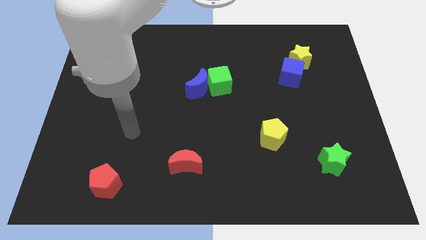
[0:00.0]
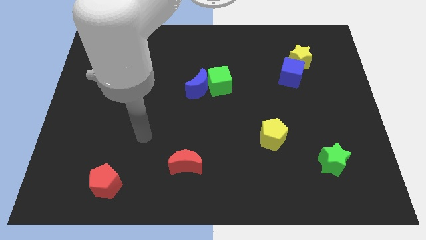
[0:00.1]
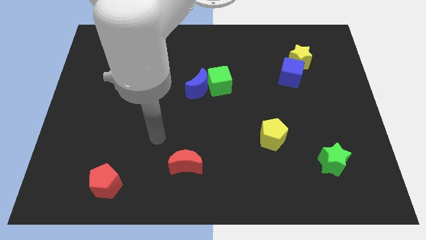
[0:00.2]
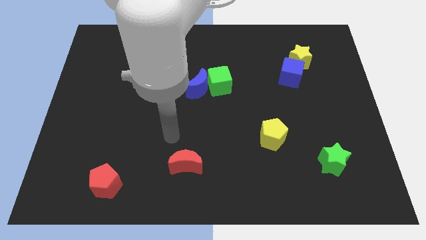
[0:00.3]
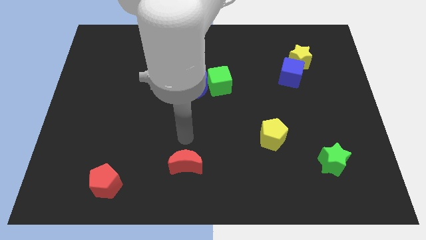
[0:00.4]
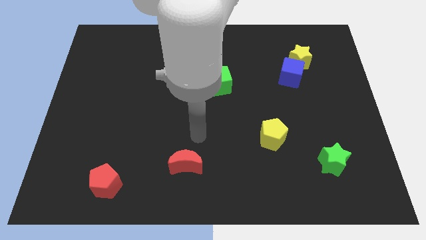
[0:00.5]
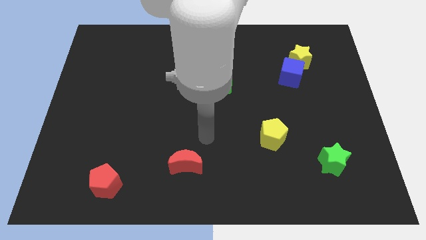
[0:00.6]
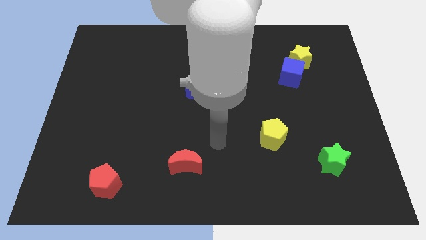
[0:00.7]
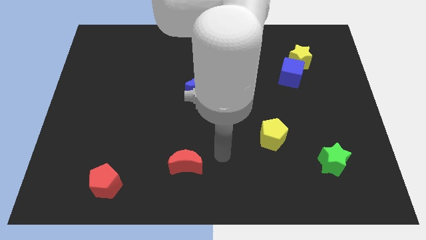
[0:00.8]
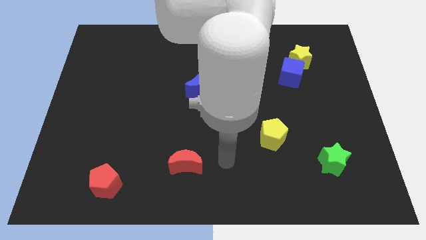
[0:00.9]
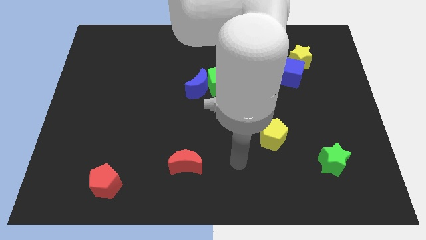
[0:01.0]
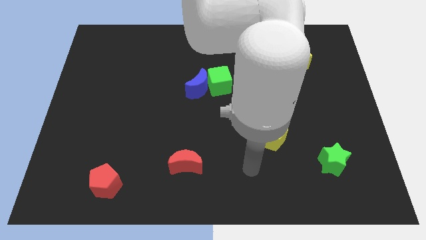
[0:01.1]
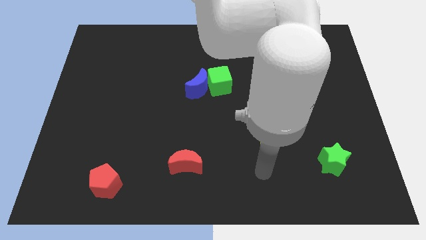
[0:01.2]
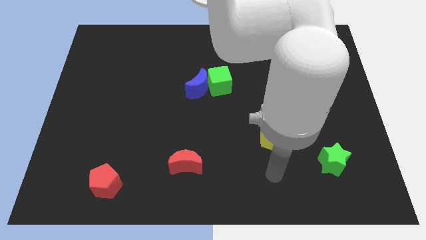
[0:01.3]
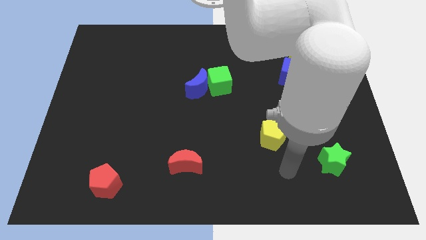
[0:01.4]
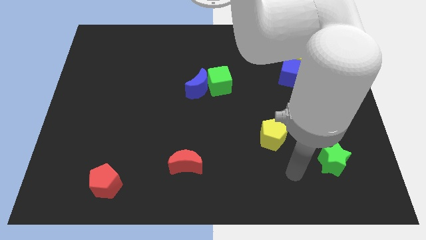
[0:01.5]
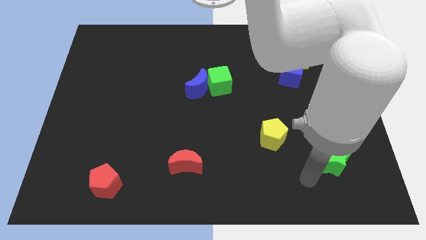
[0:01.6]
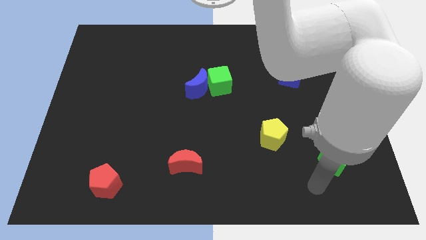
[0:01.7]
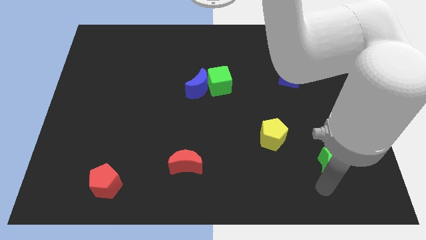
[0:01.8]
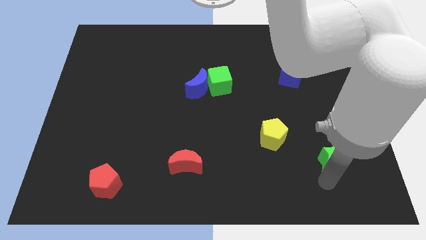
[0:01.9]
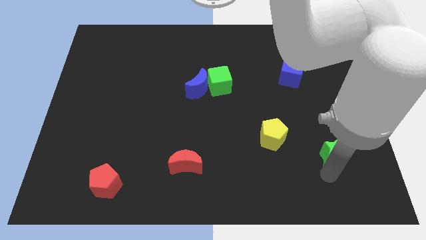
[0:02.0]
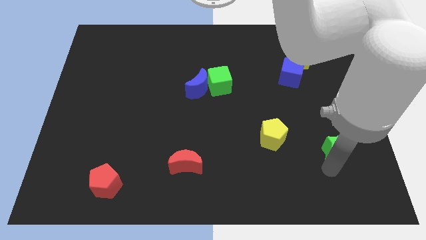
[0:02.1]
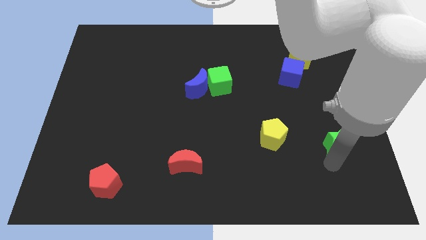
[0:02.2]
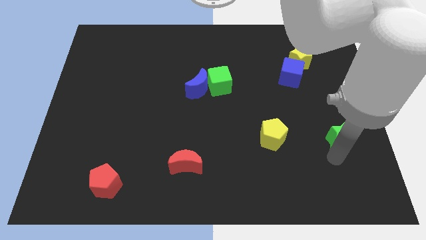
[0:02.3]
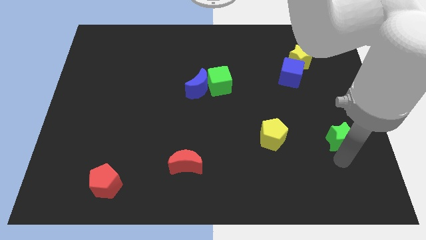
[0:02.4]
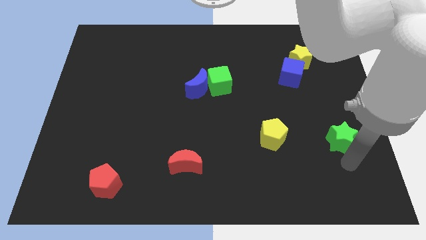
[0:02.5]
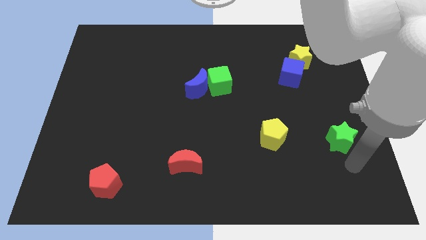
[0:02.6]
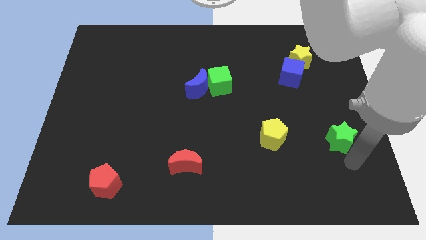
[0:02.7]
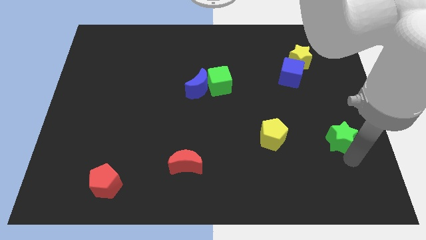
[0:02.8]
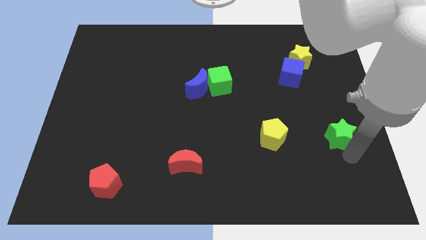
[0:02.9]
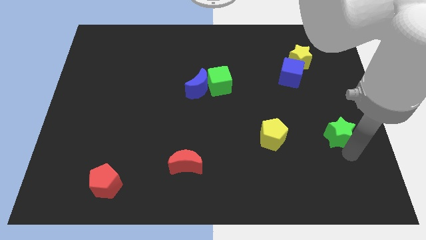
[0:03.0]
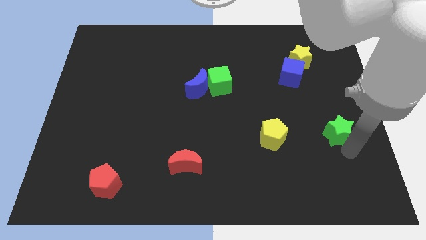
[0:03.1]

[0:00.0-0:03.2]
slightly move the green star upwards

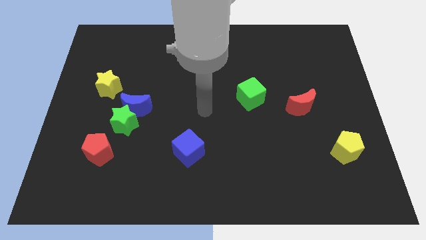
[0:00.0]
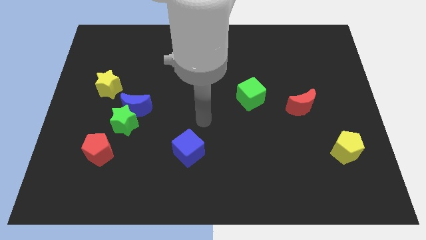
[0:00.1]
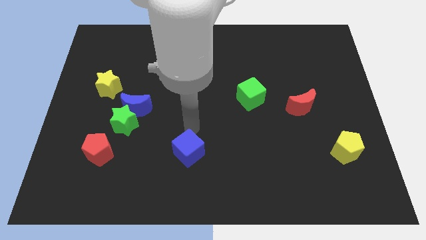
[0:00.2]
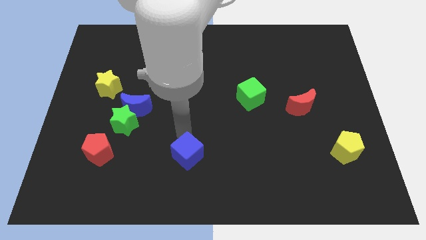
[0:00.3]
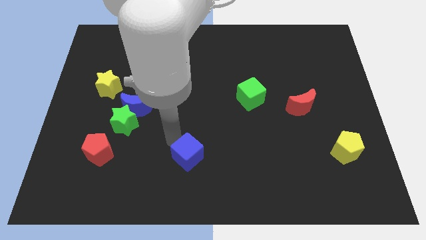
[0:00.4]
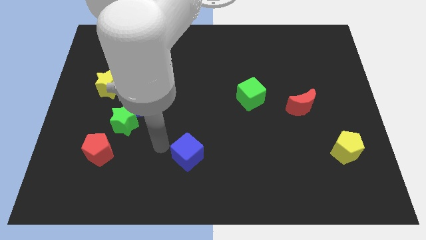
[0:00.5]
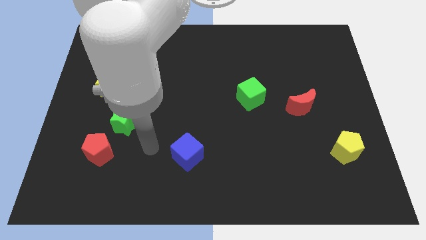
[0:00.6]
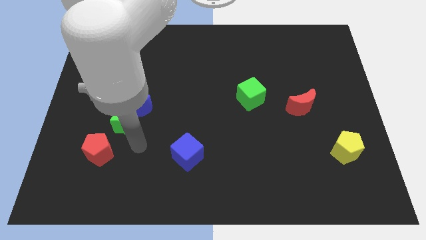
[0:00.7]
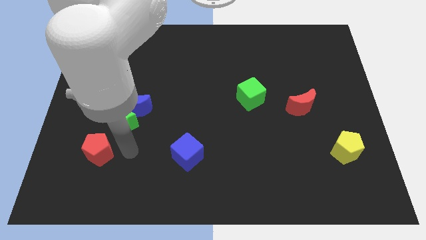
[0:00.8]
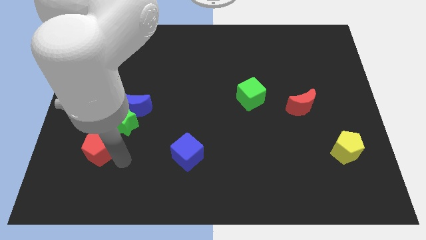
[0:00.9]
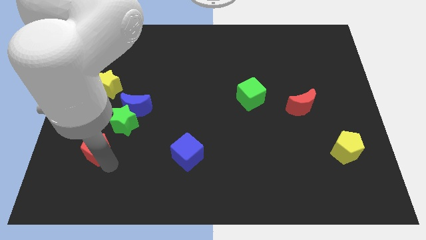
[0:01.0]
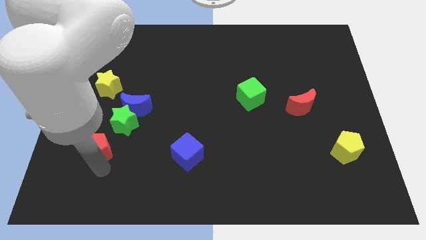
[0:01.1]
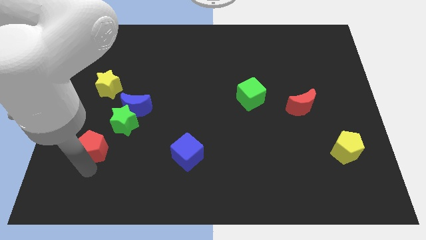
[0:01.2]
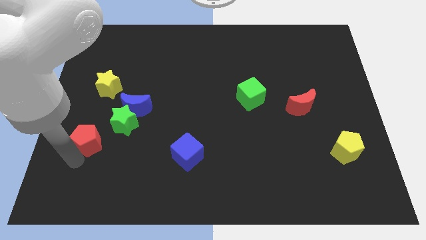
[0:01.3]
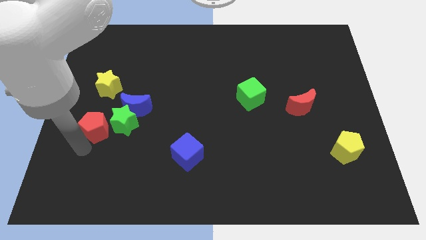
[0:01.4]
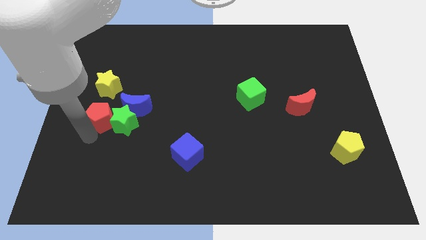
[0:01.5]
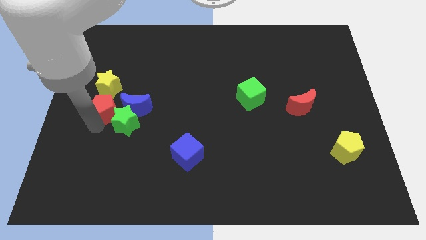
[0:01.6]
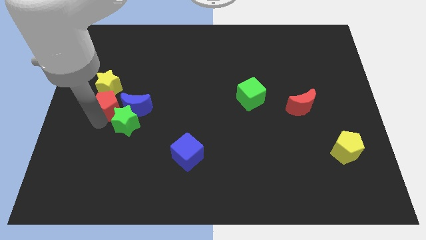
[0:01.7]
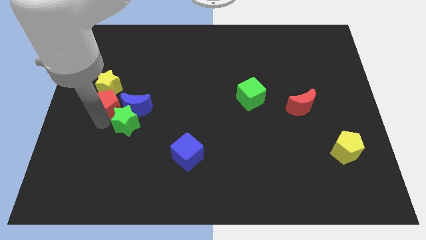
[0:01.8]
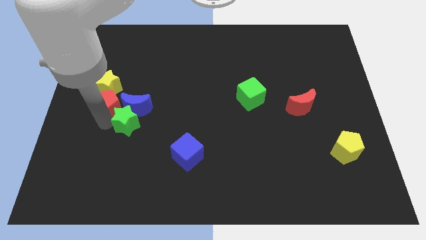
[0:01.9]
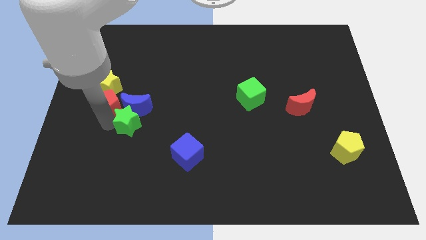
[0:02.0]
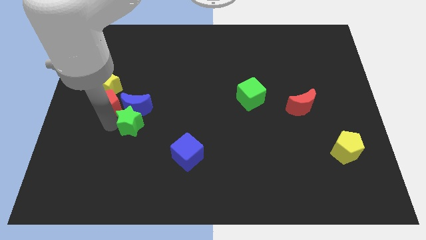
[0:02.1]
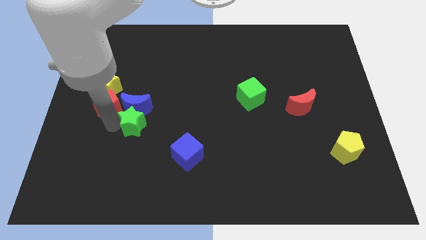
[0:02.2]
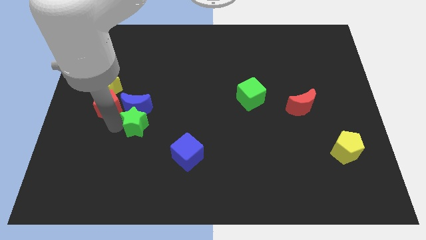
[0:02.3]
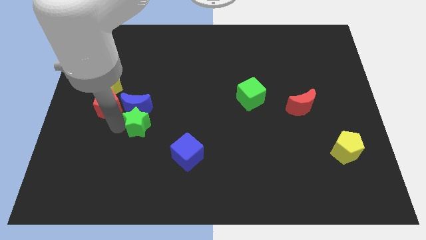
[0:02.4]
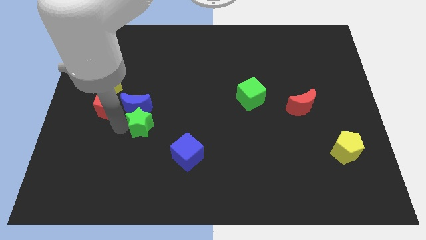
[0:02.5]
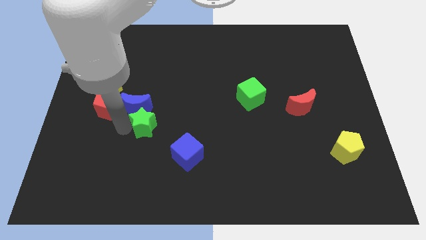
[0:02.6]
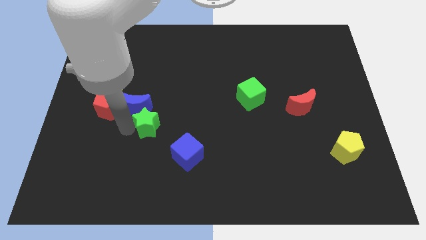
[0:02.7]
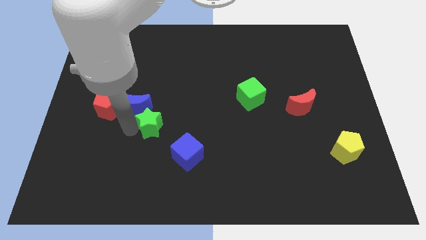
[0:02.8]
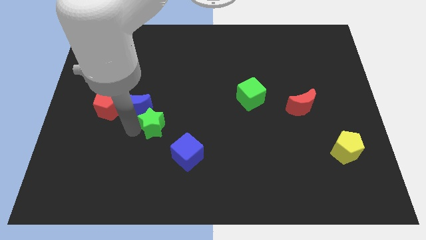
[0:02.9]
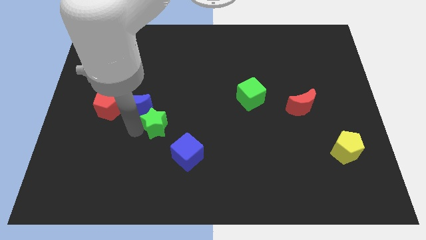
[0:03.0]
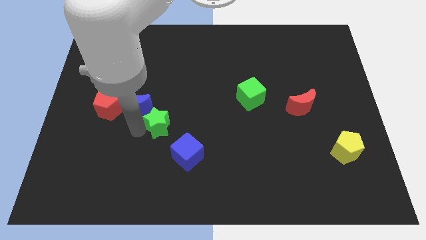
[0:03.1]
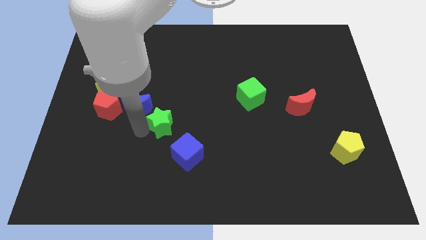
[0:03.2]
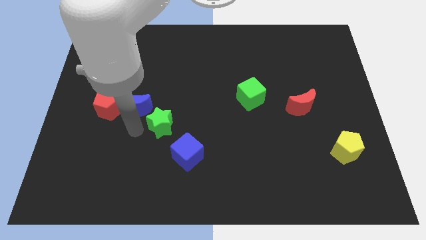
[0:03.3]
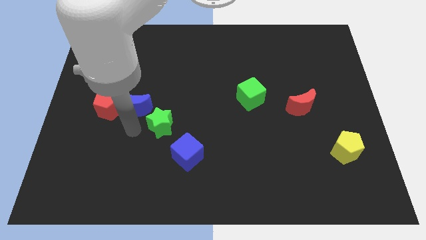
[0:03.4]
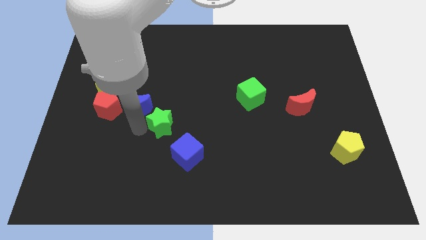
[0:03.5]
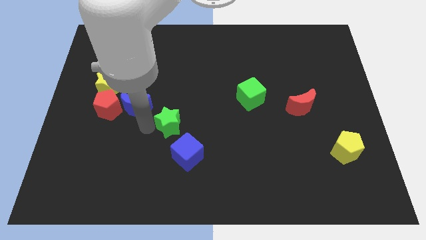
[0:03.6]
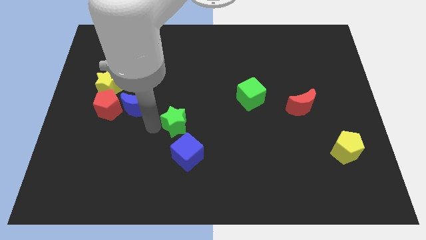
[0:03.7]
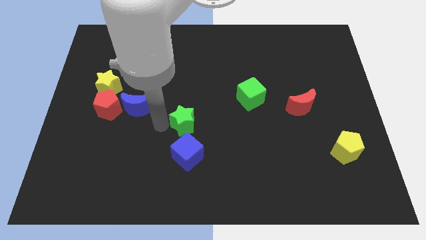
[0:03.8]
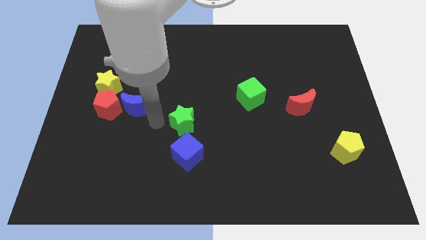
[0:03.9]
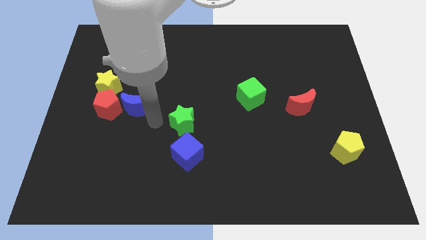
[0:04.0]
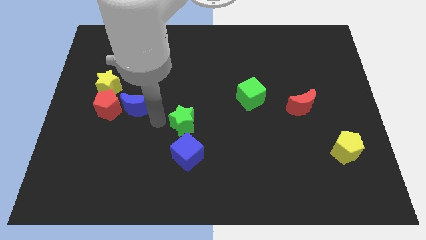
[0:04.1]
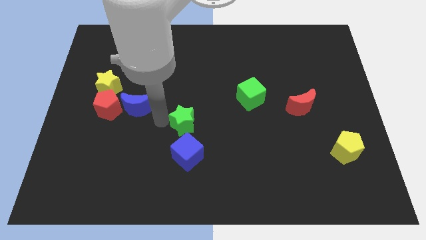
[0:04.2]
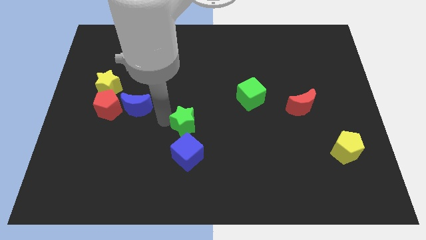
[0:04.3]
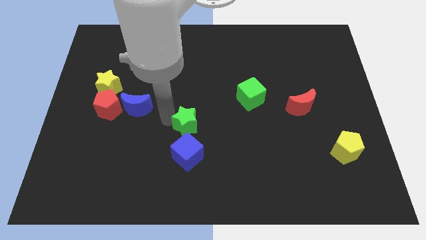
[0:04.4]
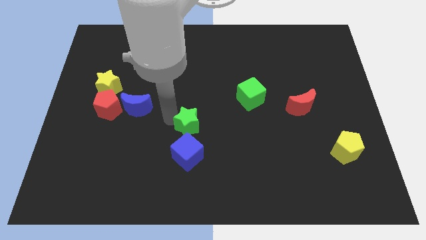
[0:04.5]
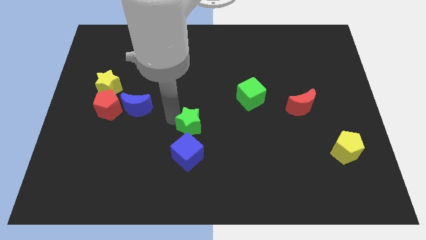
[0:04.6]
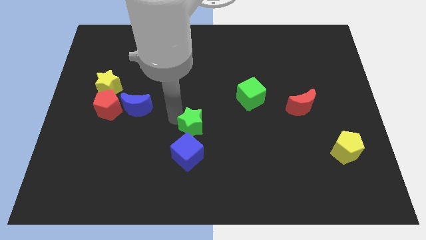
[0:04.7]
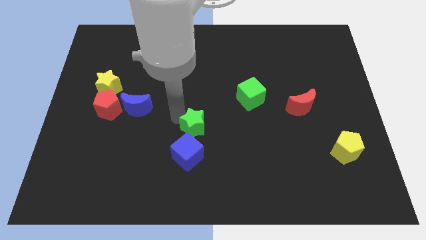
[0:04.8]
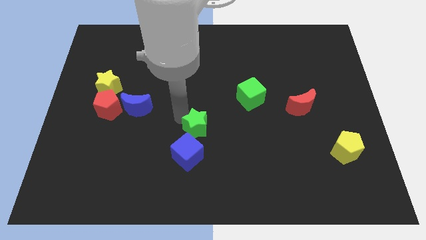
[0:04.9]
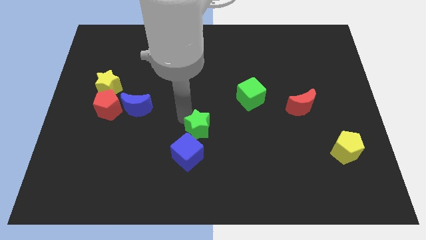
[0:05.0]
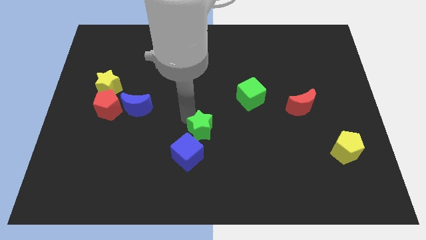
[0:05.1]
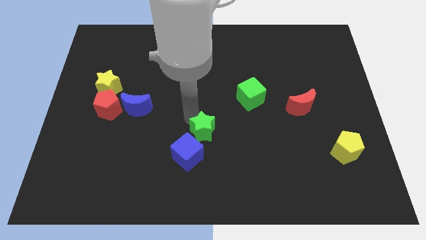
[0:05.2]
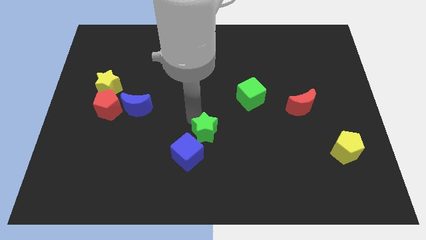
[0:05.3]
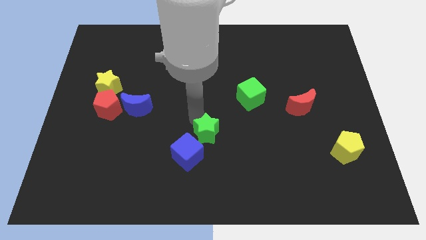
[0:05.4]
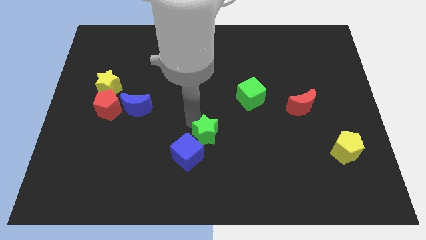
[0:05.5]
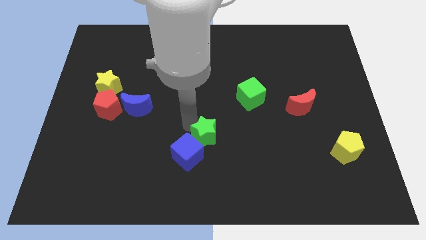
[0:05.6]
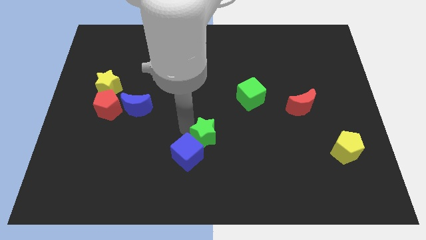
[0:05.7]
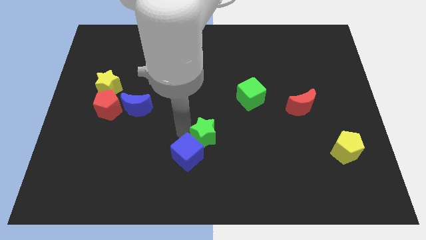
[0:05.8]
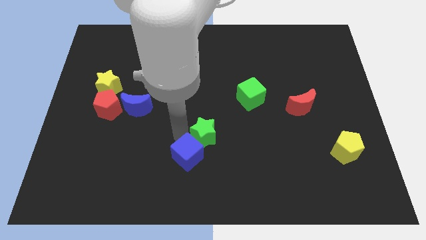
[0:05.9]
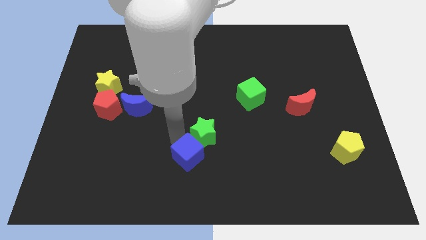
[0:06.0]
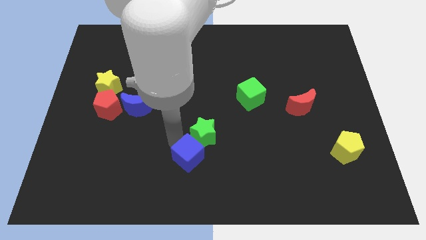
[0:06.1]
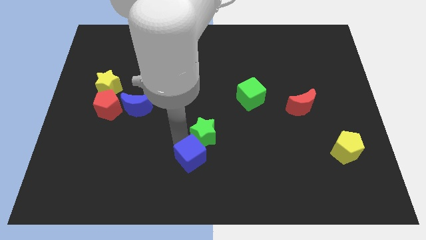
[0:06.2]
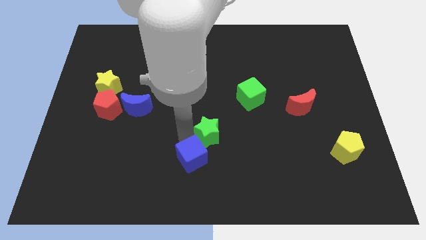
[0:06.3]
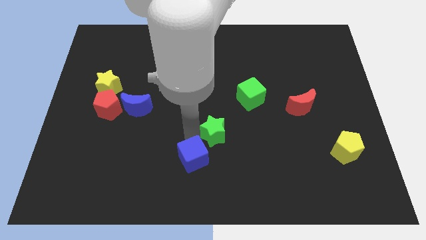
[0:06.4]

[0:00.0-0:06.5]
move the green star to the right
